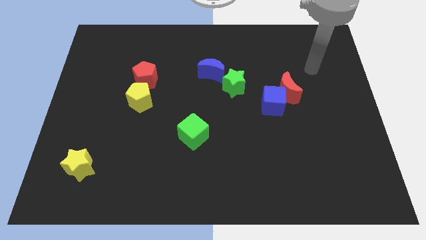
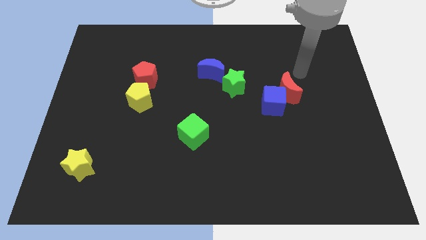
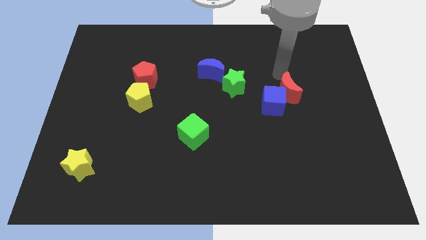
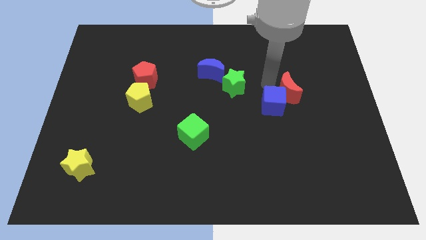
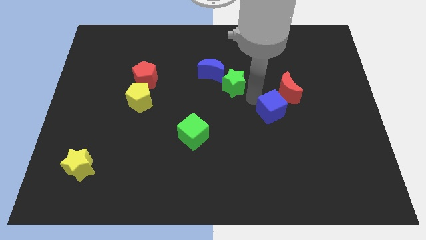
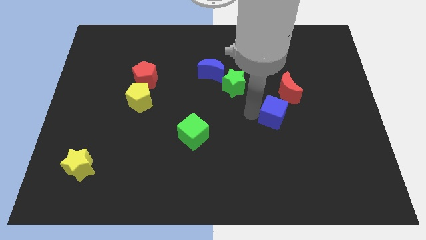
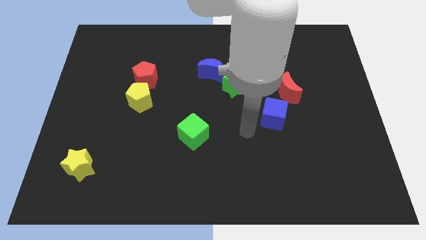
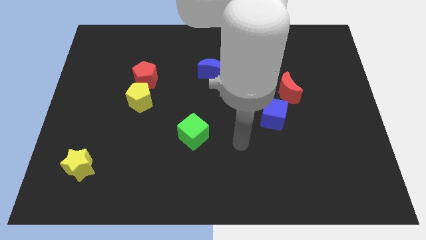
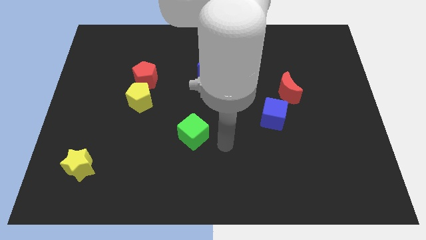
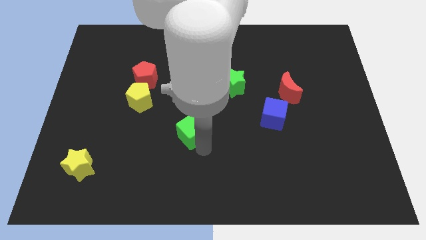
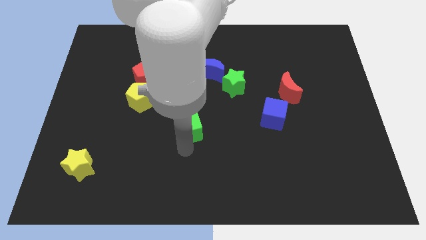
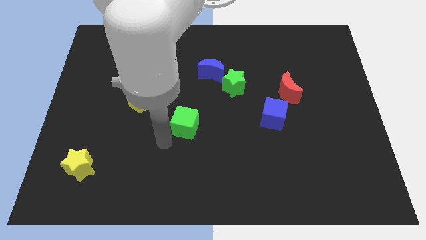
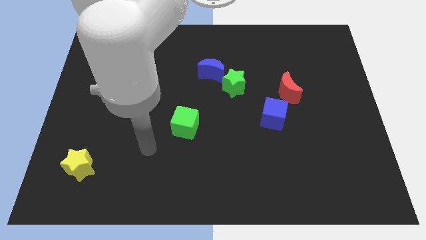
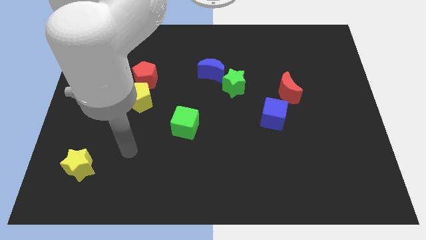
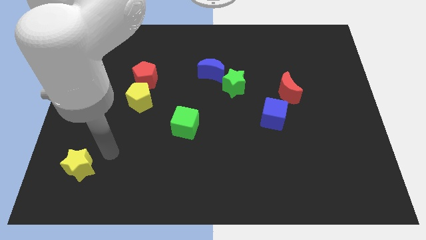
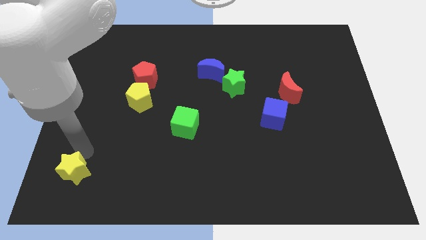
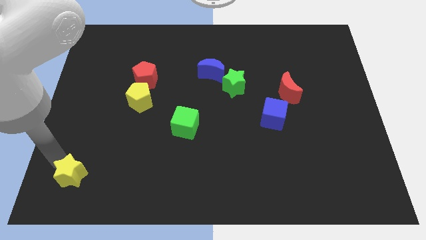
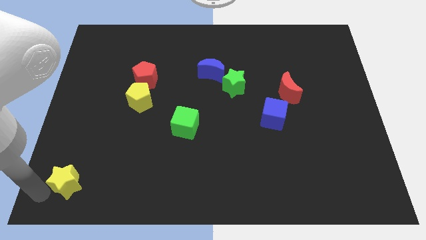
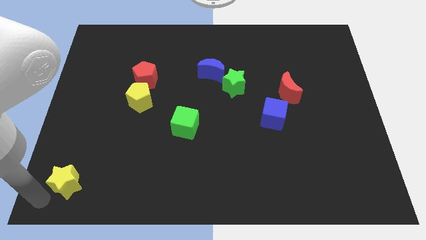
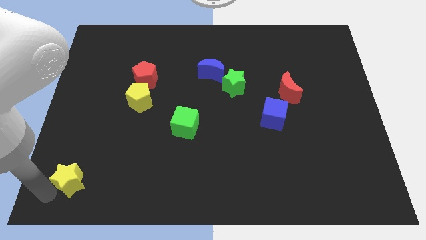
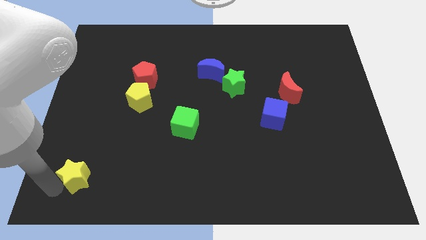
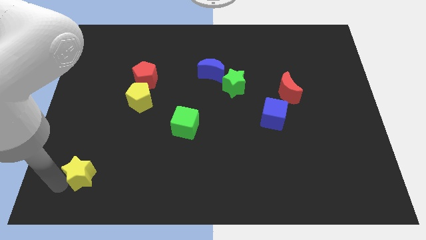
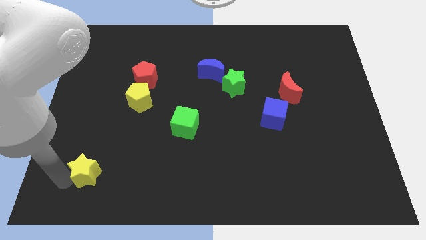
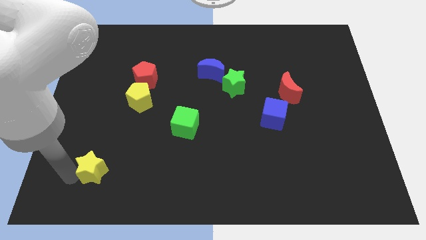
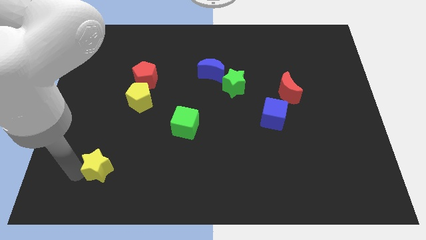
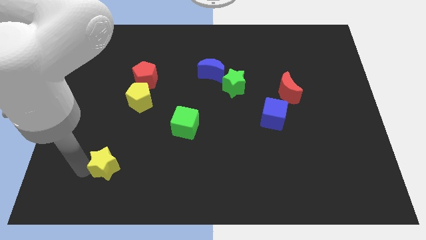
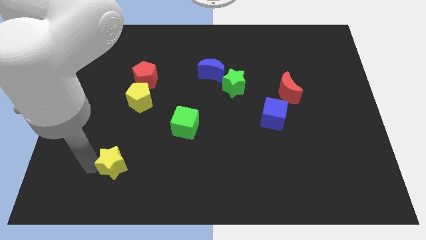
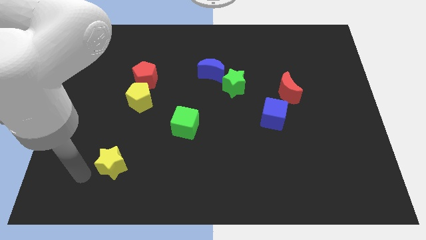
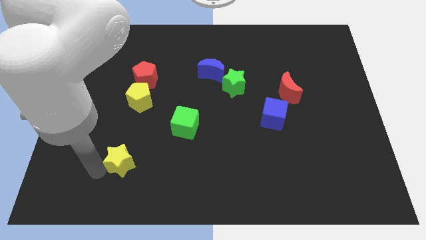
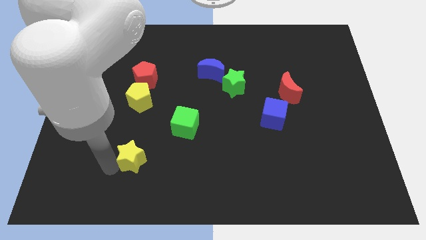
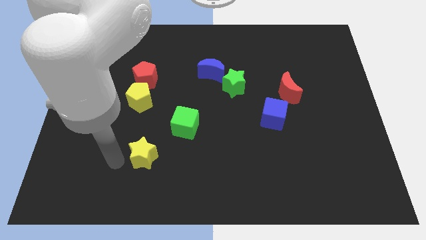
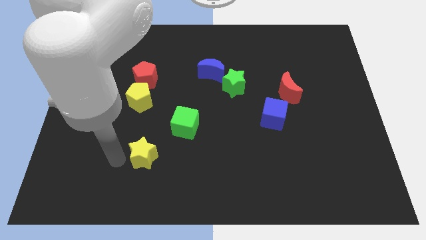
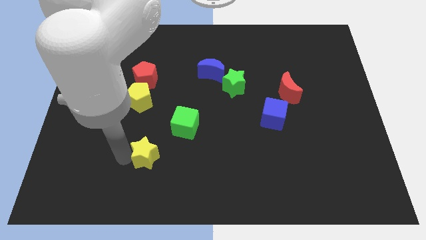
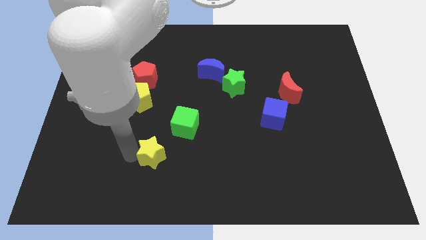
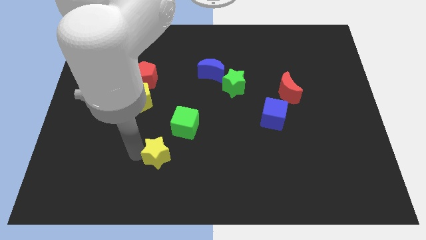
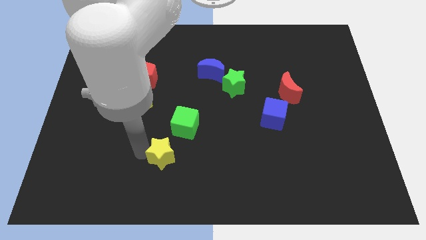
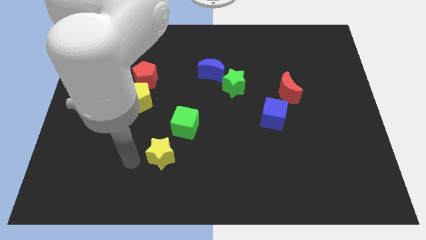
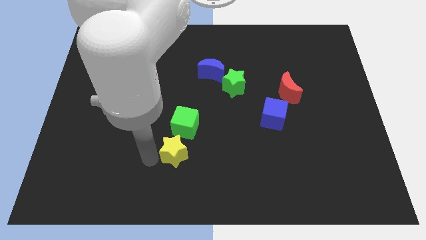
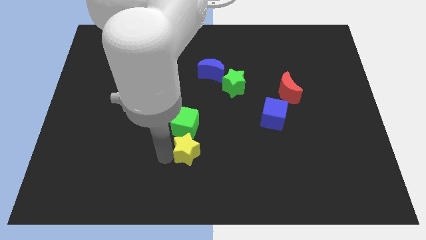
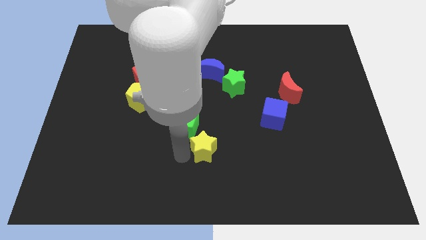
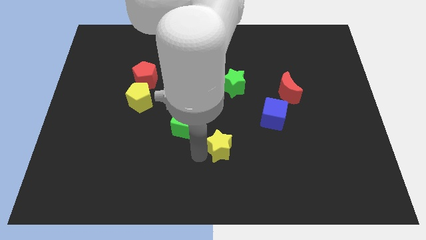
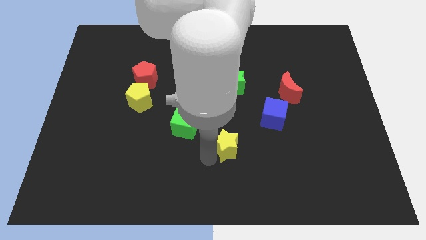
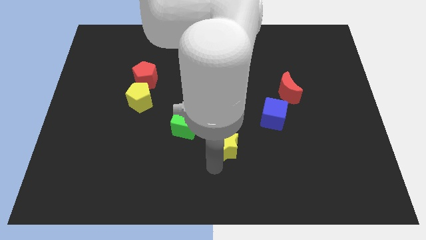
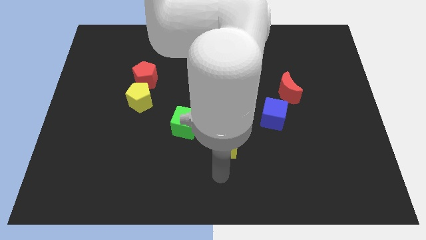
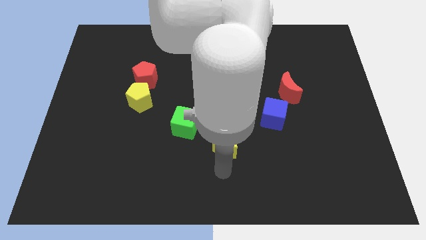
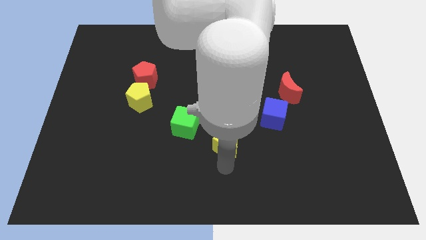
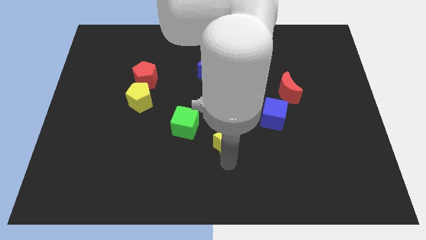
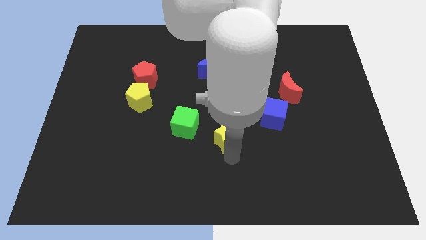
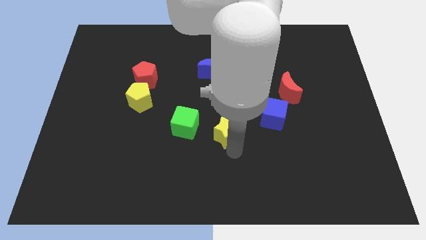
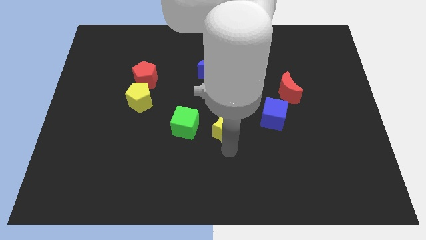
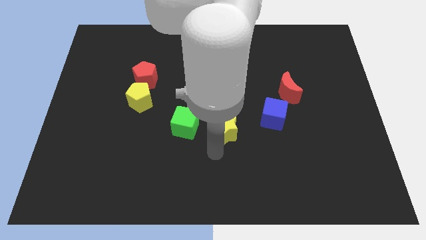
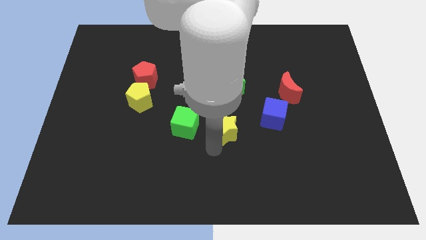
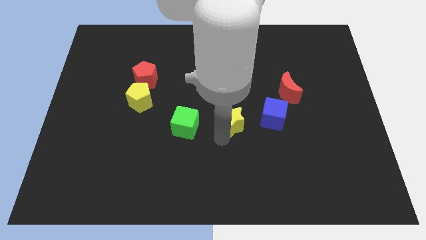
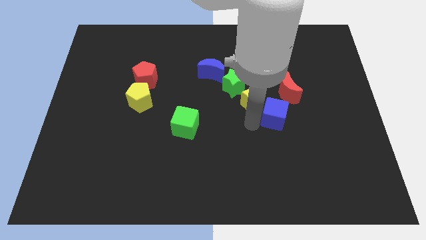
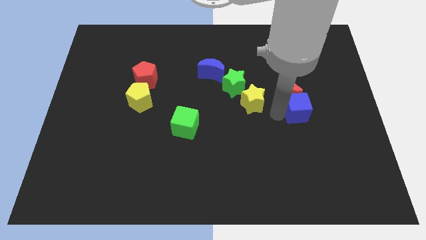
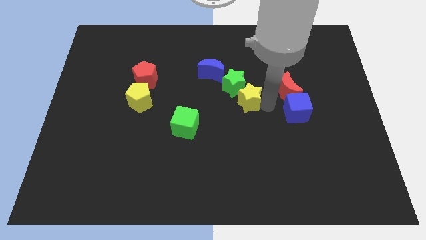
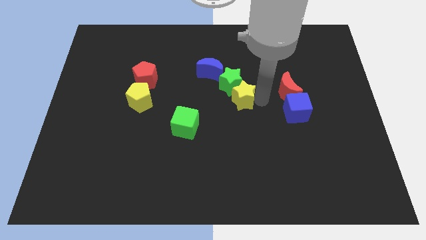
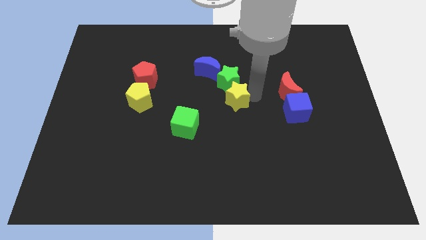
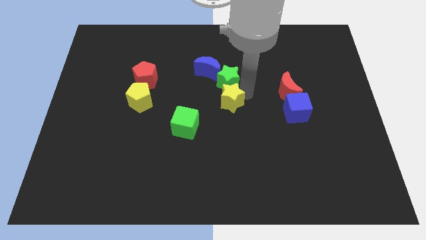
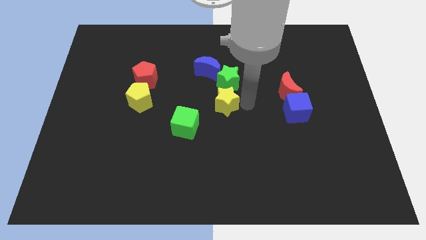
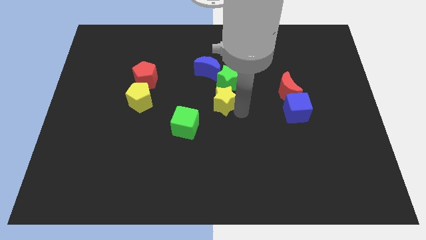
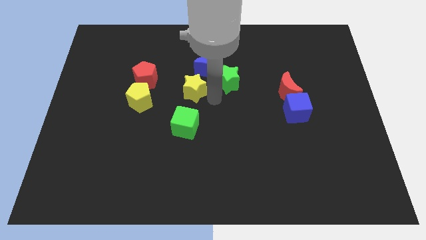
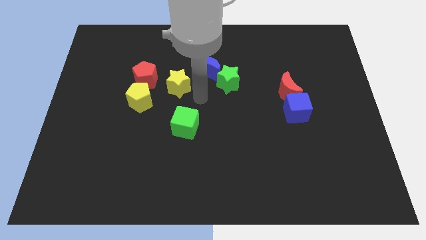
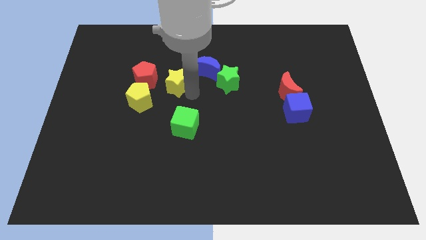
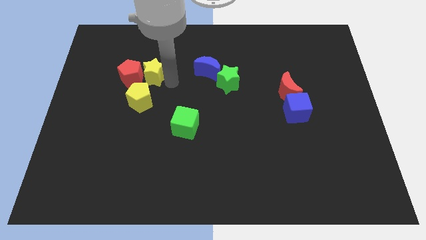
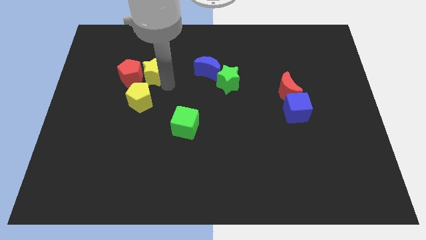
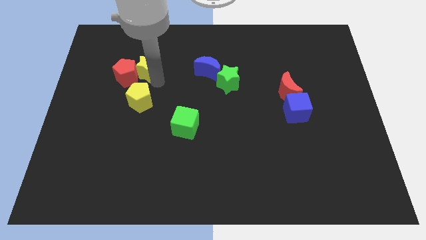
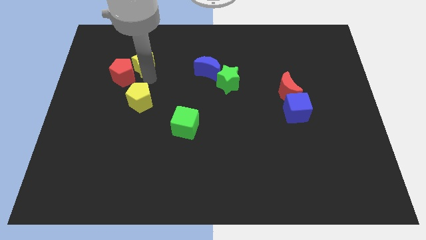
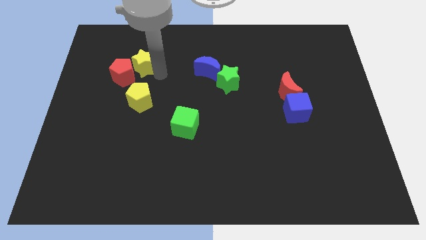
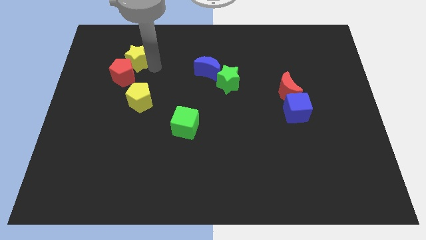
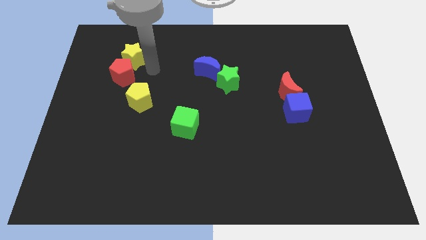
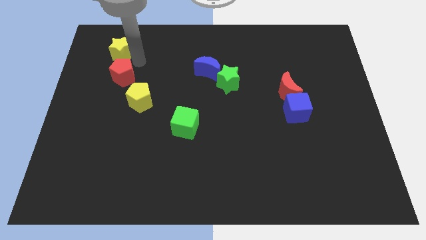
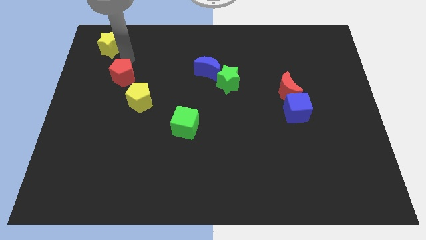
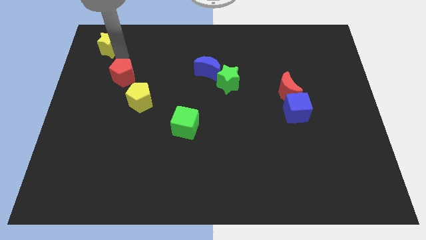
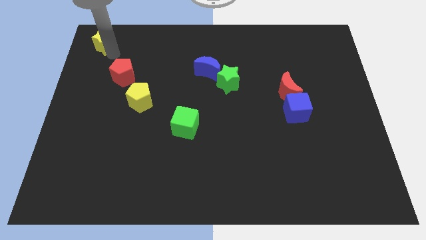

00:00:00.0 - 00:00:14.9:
move the yellow star to the upper left corner
